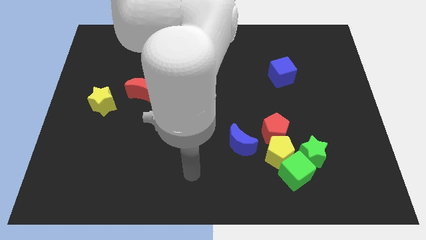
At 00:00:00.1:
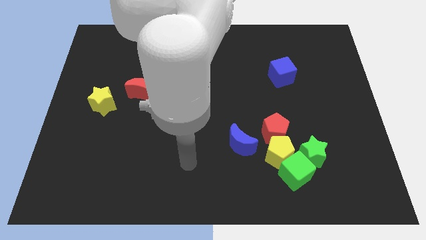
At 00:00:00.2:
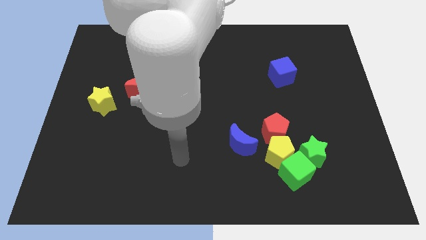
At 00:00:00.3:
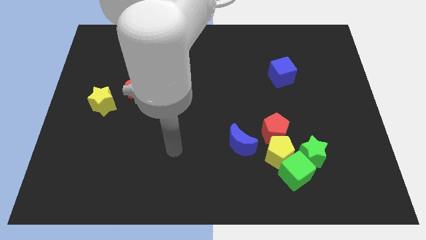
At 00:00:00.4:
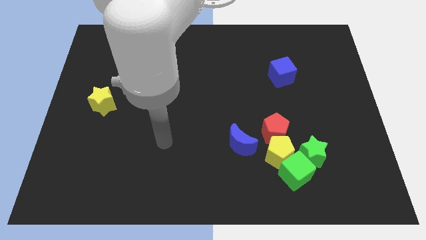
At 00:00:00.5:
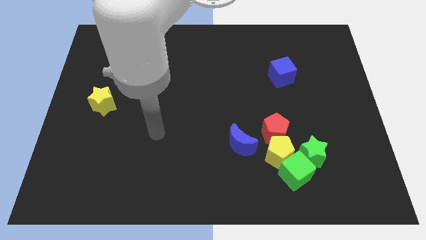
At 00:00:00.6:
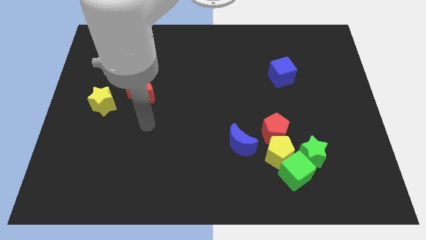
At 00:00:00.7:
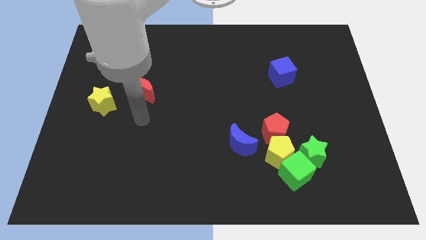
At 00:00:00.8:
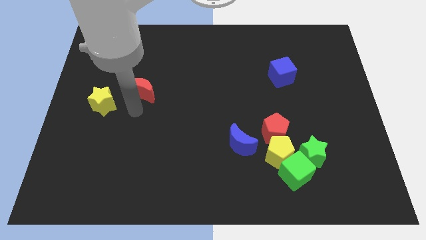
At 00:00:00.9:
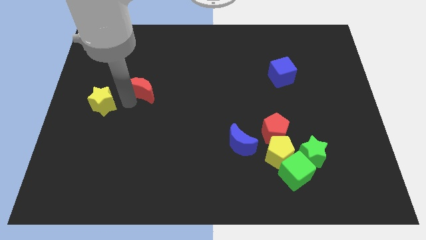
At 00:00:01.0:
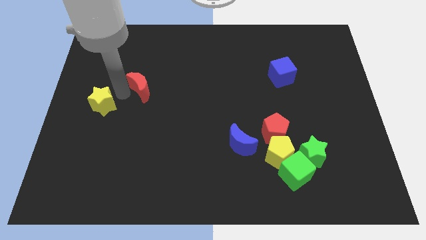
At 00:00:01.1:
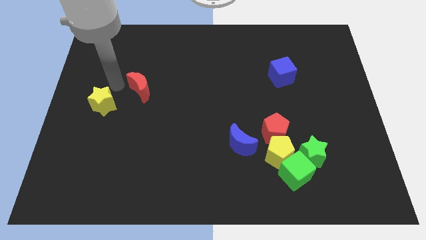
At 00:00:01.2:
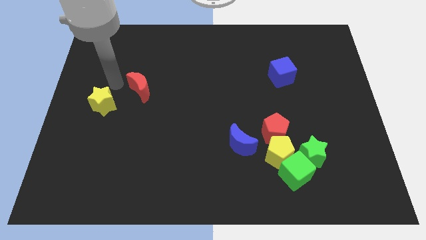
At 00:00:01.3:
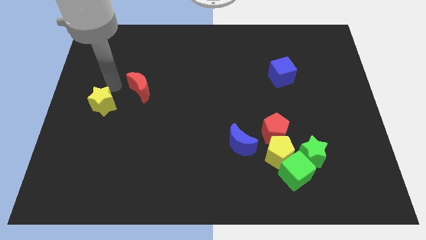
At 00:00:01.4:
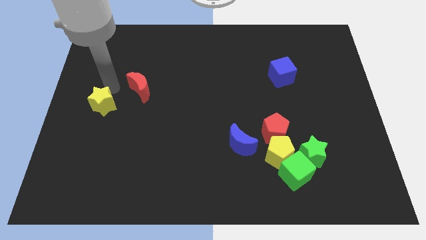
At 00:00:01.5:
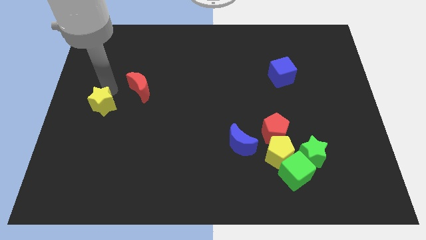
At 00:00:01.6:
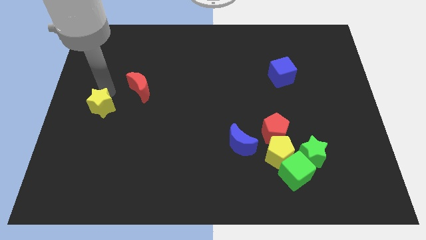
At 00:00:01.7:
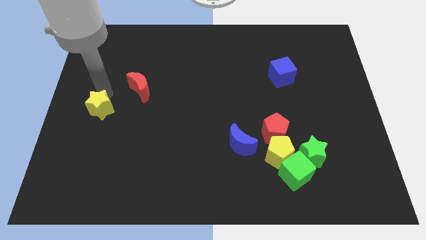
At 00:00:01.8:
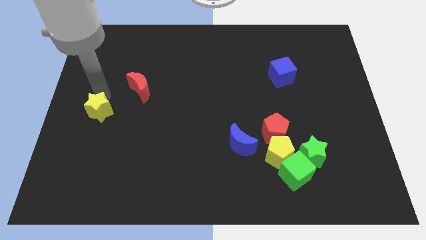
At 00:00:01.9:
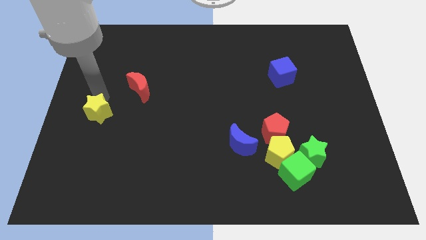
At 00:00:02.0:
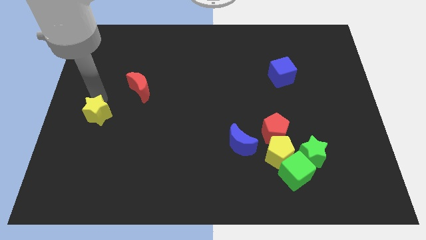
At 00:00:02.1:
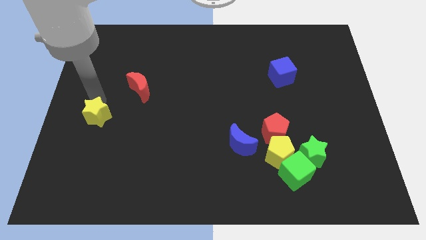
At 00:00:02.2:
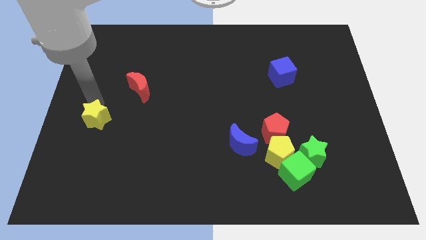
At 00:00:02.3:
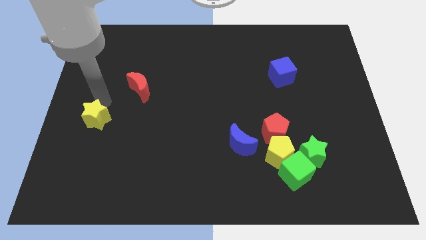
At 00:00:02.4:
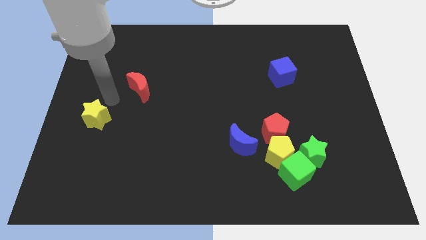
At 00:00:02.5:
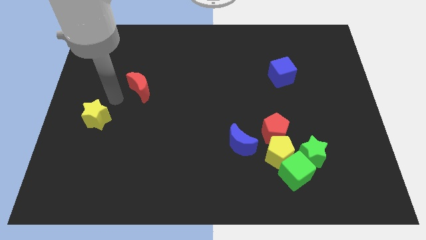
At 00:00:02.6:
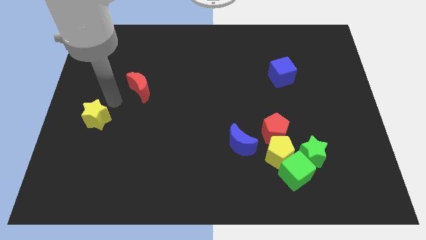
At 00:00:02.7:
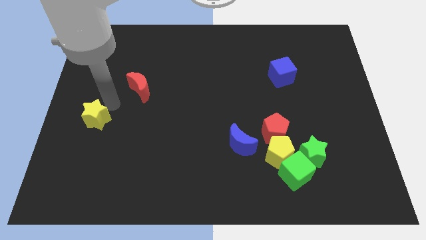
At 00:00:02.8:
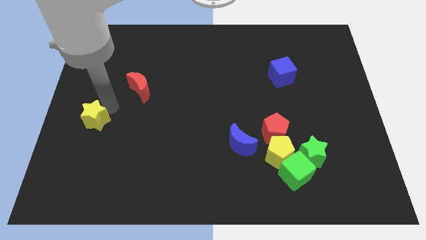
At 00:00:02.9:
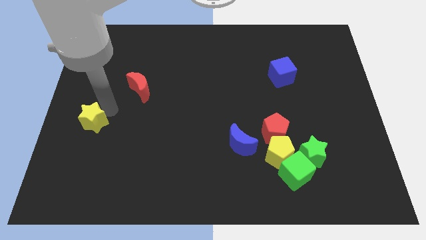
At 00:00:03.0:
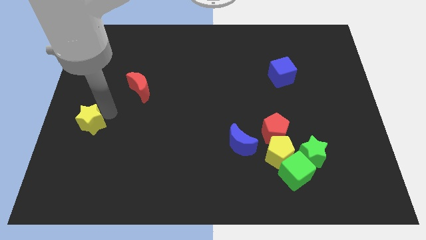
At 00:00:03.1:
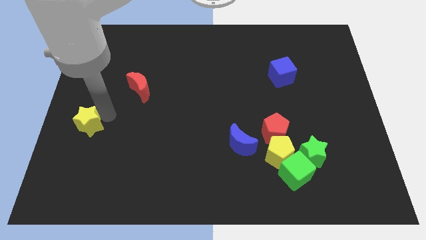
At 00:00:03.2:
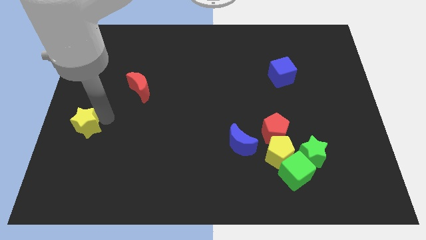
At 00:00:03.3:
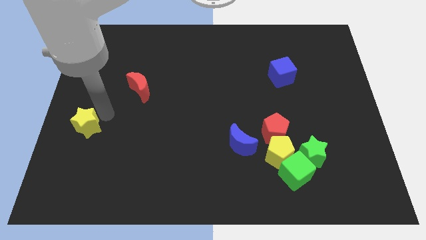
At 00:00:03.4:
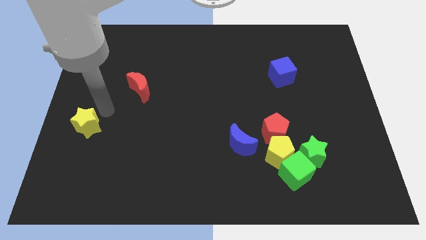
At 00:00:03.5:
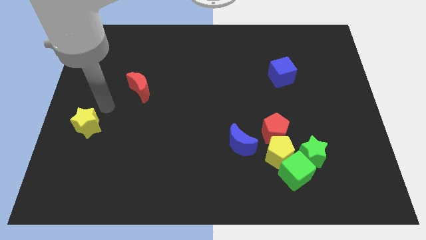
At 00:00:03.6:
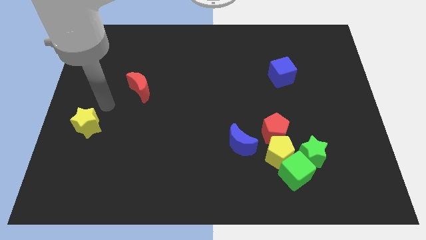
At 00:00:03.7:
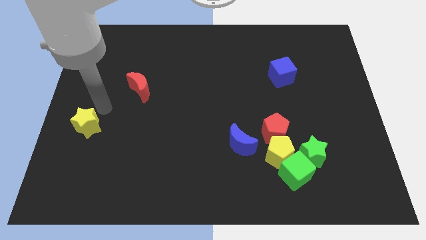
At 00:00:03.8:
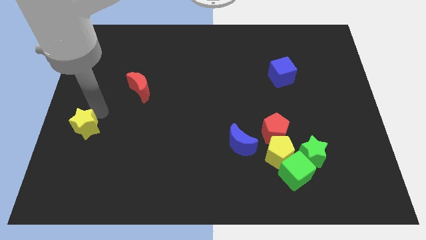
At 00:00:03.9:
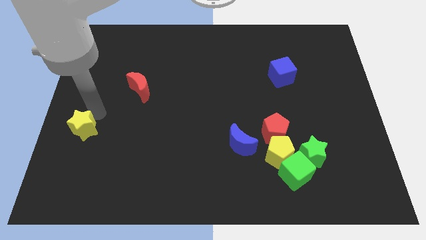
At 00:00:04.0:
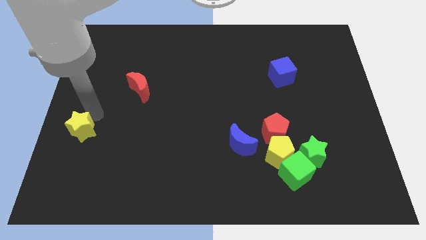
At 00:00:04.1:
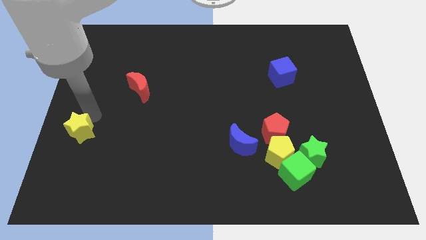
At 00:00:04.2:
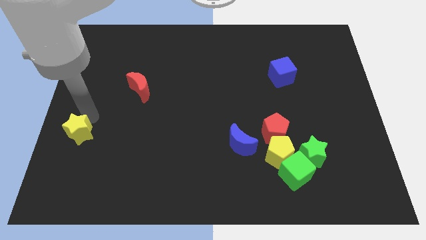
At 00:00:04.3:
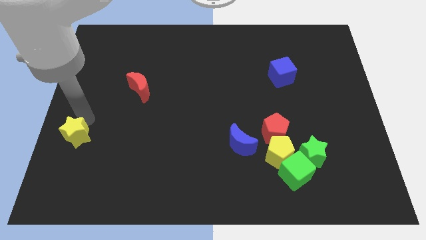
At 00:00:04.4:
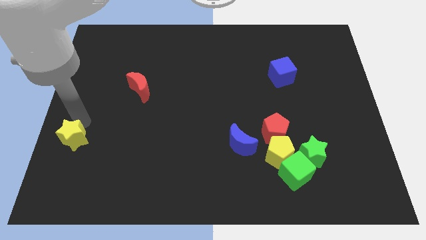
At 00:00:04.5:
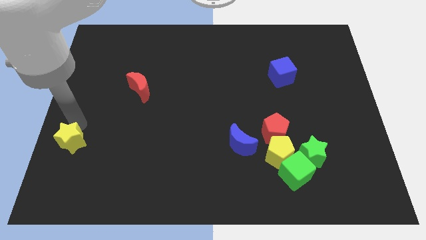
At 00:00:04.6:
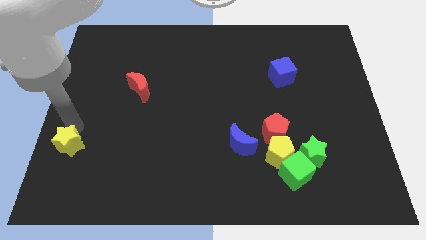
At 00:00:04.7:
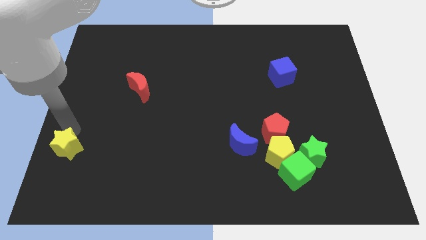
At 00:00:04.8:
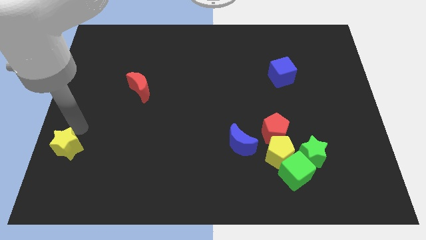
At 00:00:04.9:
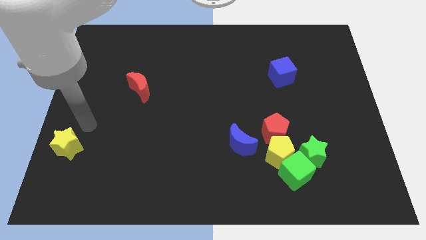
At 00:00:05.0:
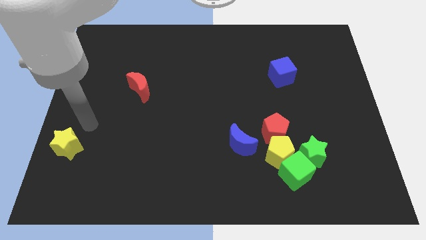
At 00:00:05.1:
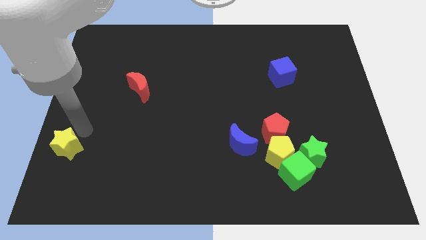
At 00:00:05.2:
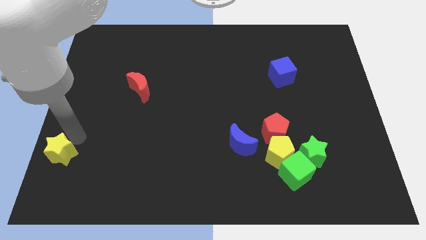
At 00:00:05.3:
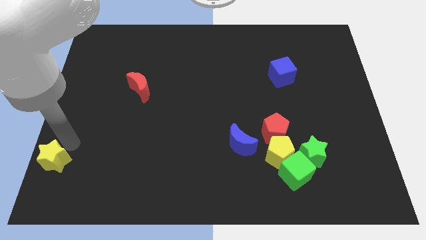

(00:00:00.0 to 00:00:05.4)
move the yellow star to the lower left corner

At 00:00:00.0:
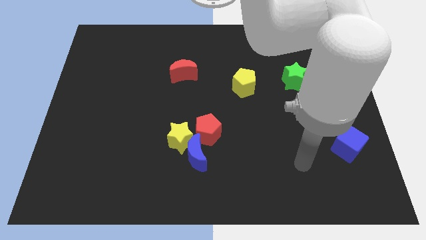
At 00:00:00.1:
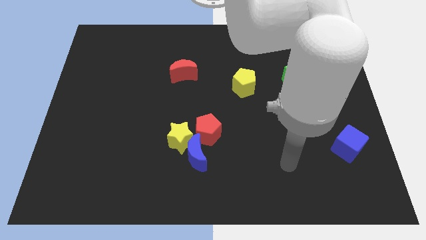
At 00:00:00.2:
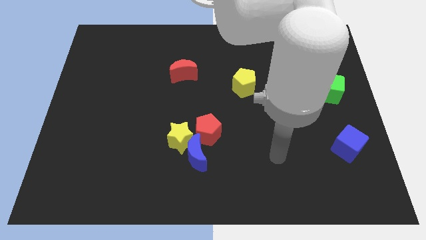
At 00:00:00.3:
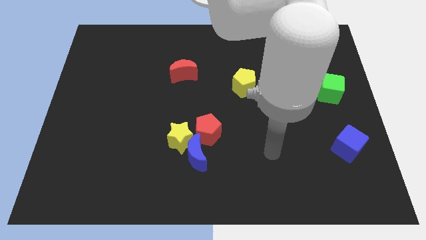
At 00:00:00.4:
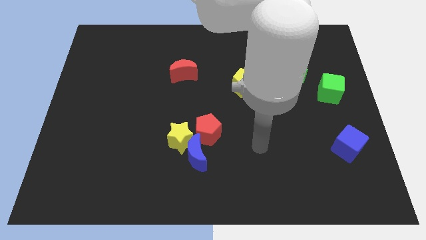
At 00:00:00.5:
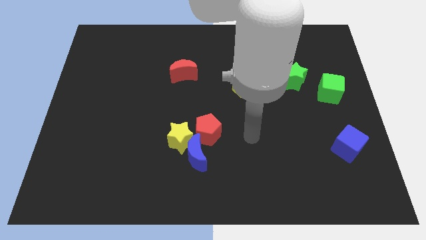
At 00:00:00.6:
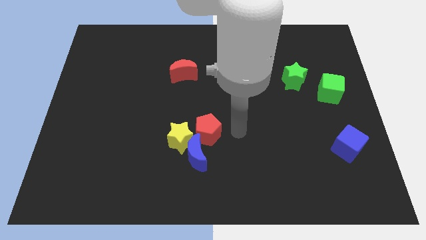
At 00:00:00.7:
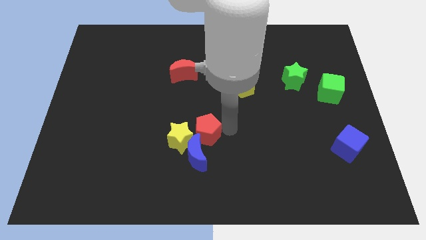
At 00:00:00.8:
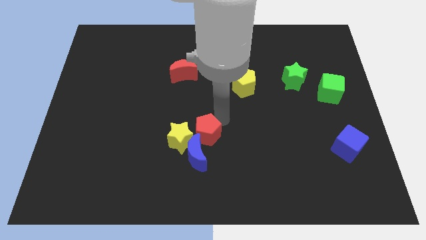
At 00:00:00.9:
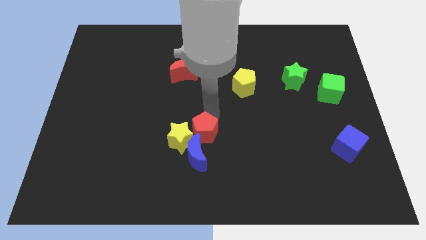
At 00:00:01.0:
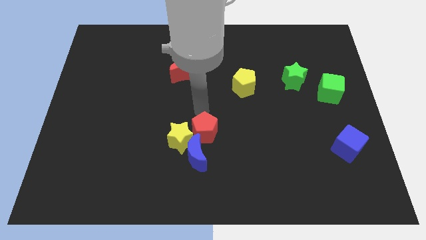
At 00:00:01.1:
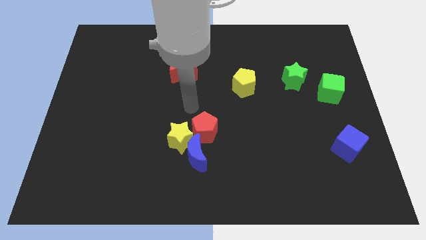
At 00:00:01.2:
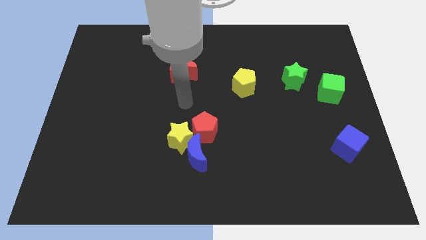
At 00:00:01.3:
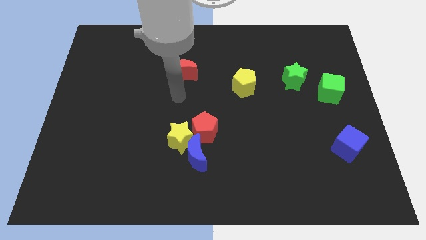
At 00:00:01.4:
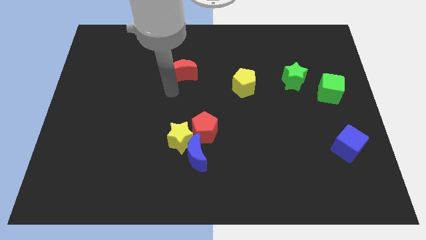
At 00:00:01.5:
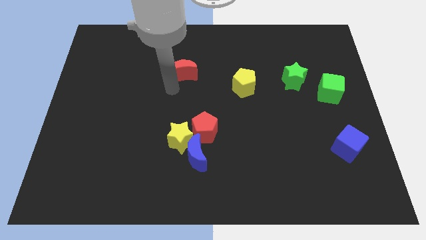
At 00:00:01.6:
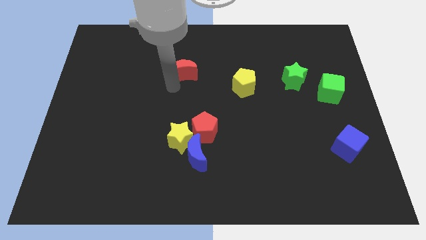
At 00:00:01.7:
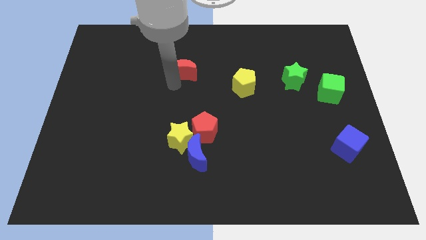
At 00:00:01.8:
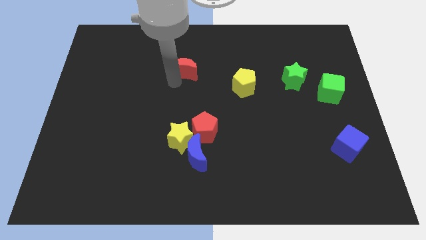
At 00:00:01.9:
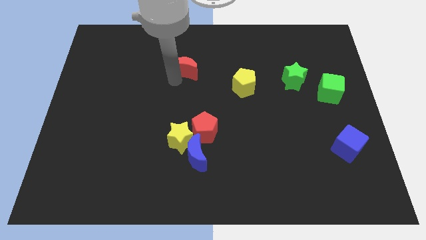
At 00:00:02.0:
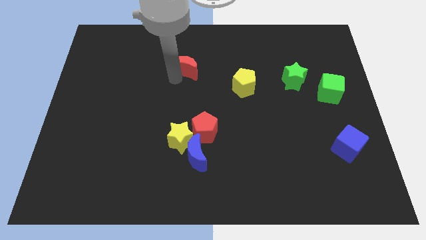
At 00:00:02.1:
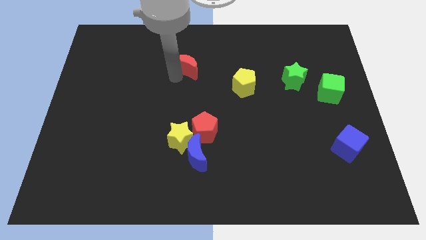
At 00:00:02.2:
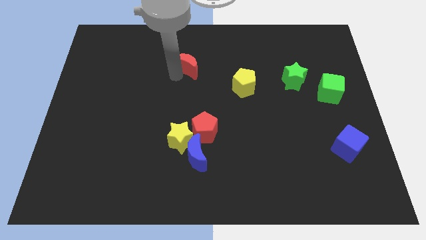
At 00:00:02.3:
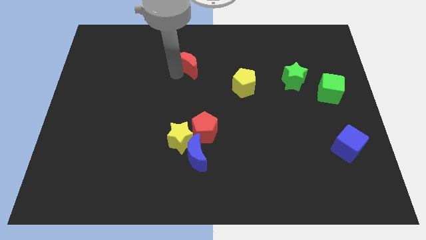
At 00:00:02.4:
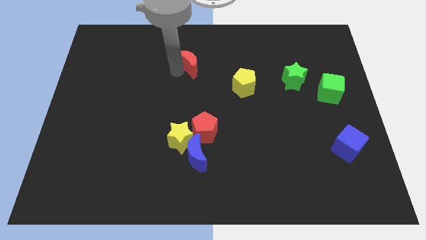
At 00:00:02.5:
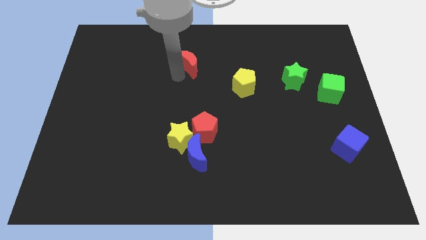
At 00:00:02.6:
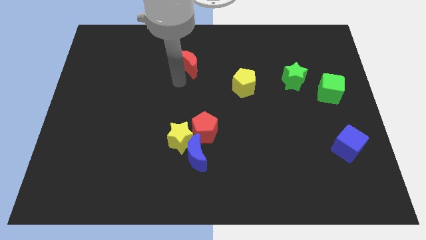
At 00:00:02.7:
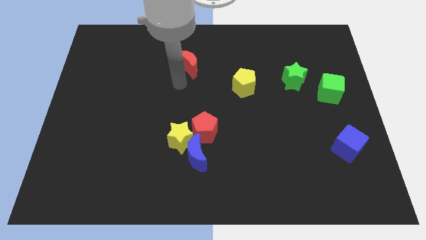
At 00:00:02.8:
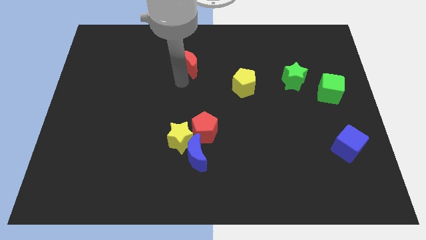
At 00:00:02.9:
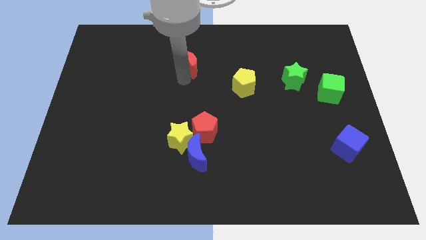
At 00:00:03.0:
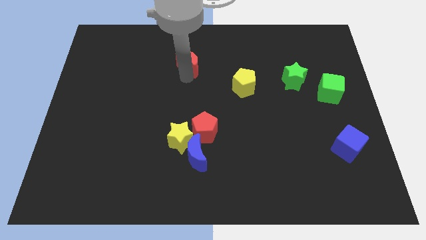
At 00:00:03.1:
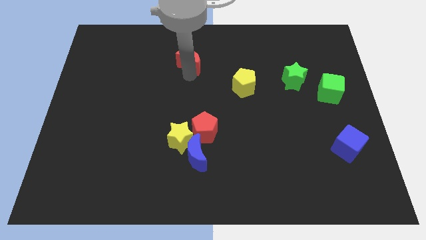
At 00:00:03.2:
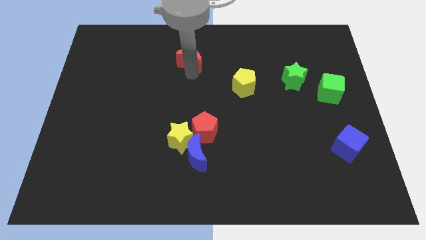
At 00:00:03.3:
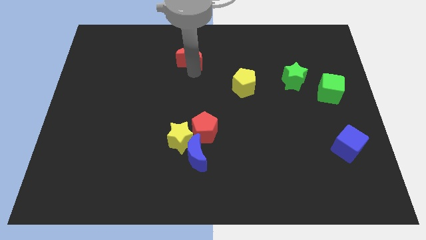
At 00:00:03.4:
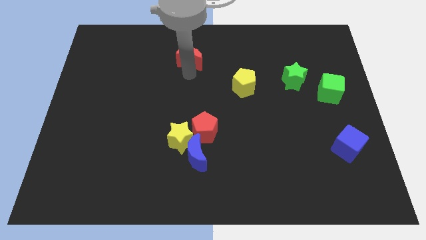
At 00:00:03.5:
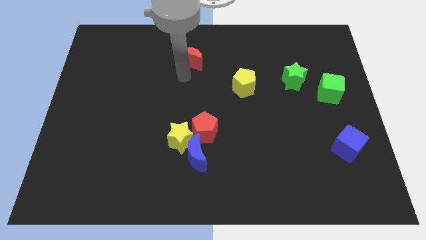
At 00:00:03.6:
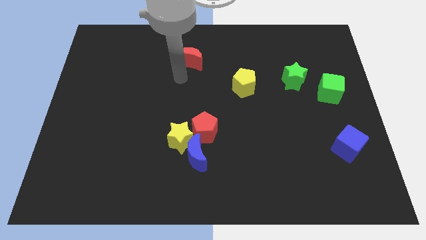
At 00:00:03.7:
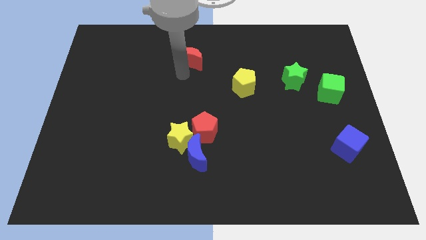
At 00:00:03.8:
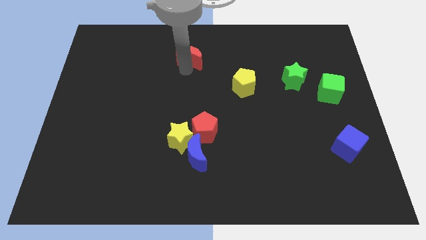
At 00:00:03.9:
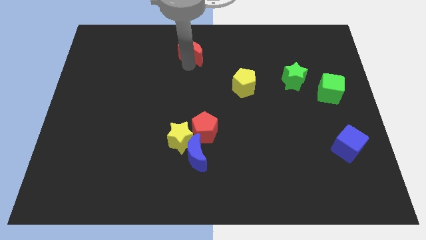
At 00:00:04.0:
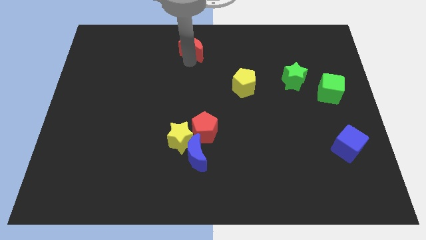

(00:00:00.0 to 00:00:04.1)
move the red moon to the top side
